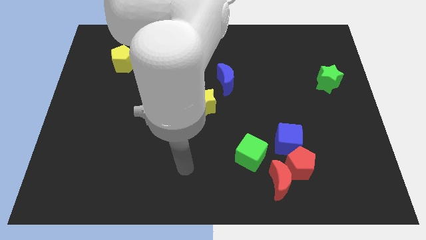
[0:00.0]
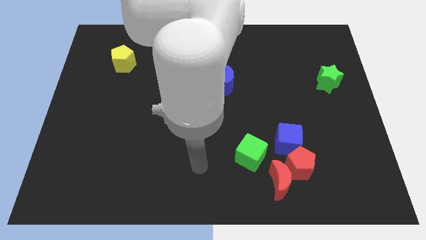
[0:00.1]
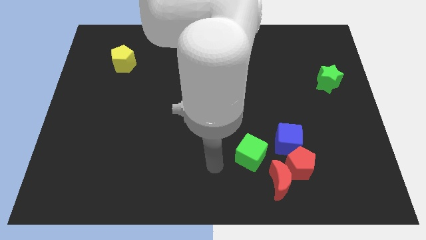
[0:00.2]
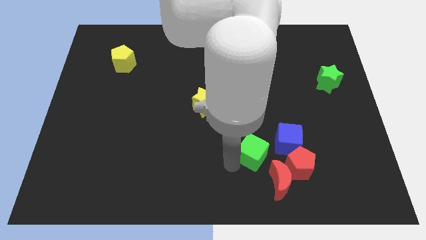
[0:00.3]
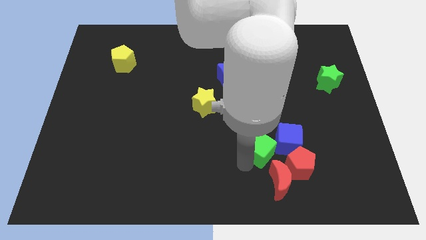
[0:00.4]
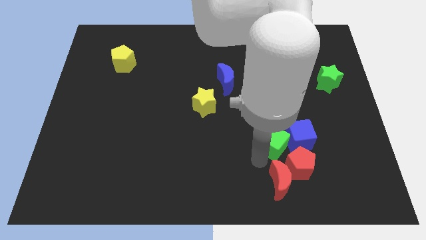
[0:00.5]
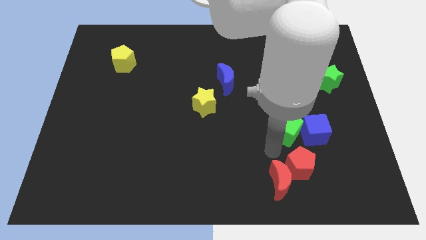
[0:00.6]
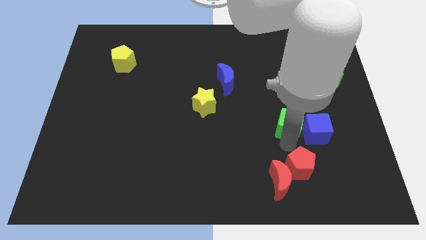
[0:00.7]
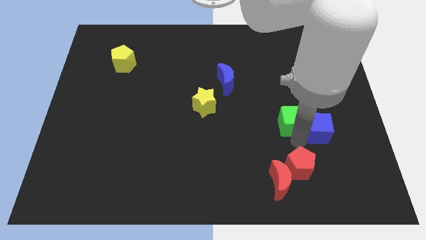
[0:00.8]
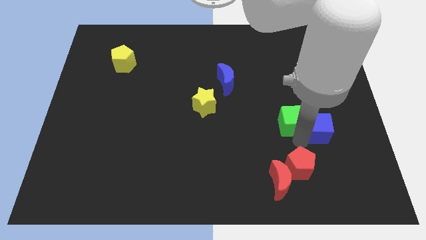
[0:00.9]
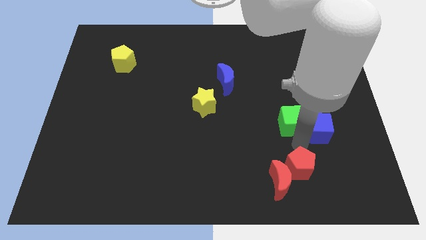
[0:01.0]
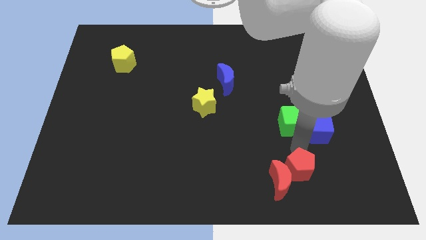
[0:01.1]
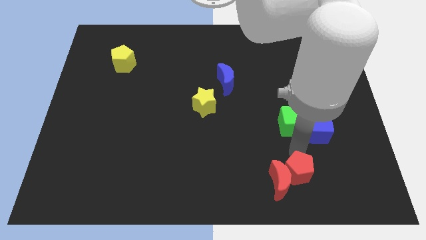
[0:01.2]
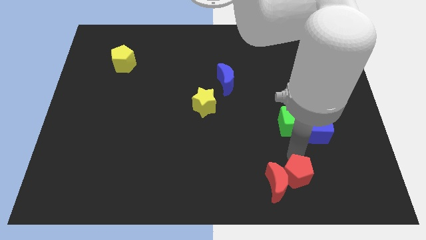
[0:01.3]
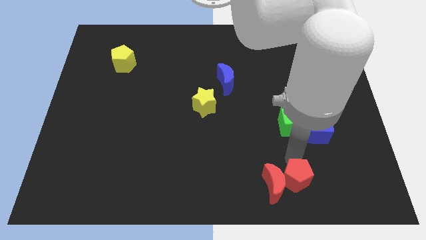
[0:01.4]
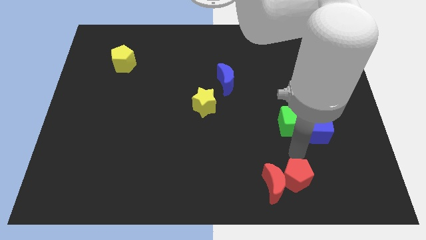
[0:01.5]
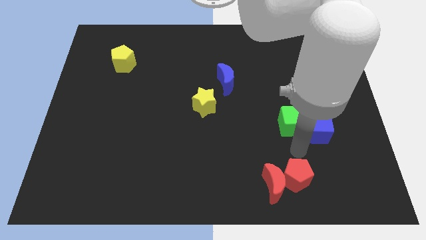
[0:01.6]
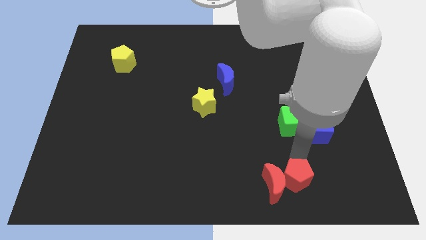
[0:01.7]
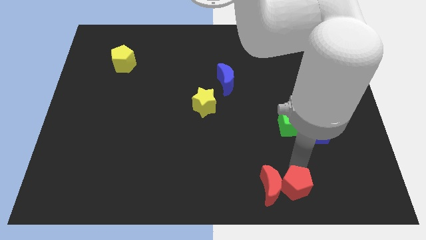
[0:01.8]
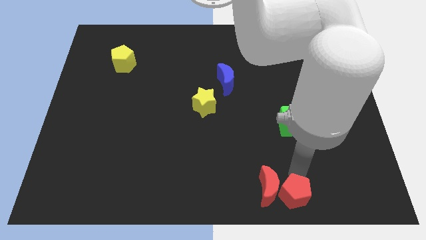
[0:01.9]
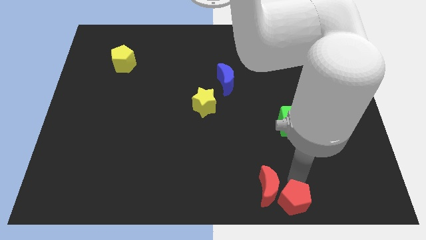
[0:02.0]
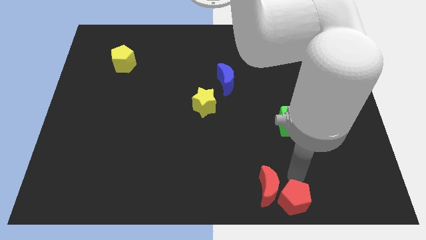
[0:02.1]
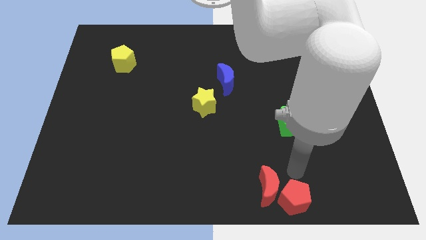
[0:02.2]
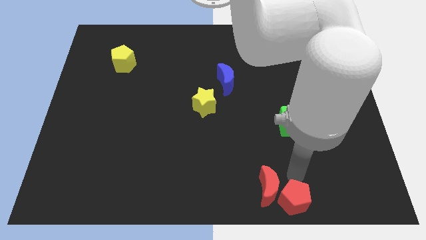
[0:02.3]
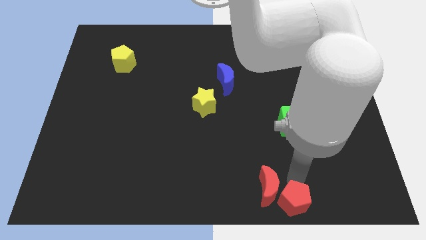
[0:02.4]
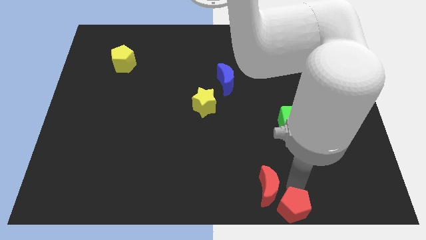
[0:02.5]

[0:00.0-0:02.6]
move the red pentagon away from the red moon and blue cube

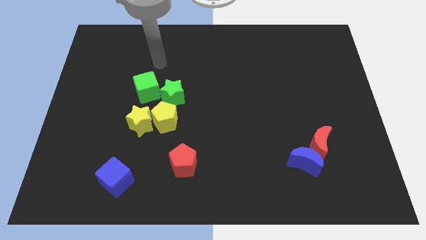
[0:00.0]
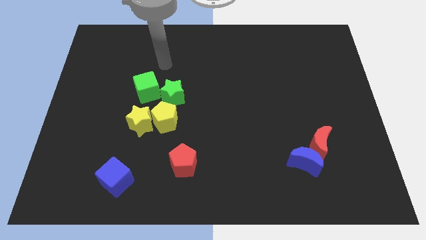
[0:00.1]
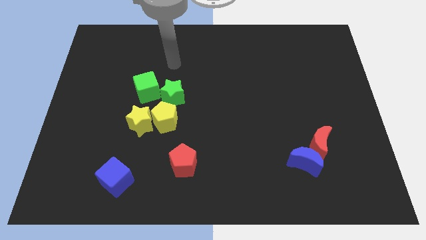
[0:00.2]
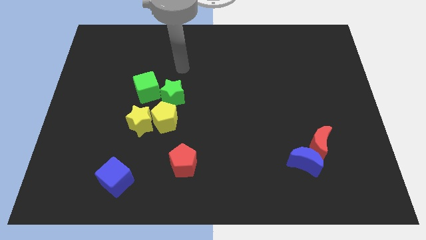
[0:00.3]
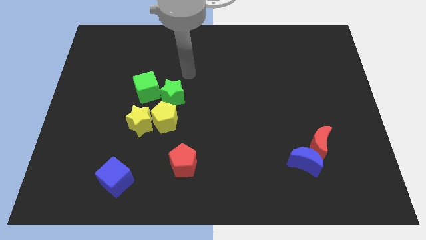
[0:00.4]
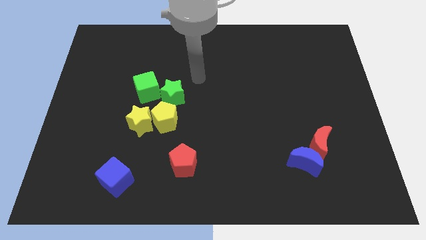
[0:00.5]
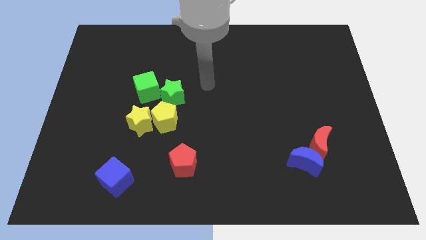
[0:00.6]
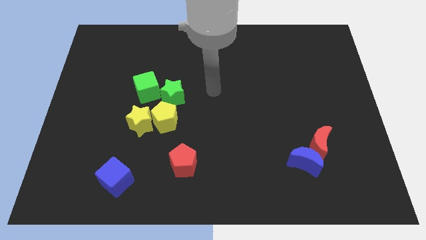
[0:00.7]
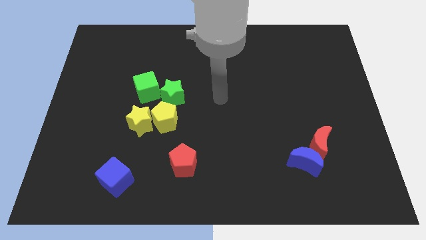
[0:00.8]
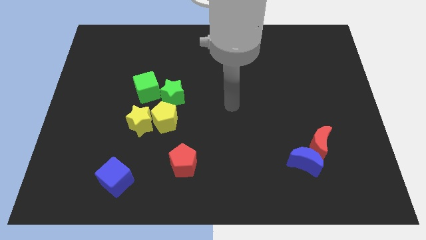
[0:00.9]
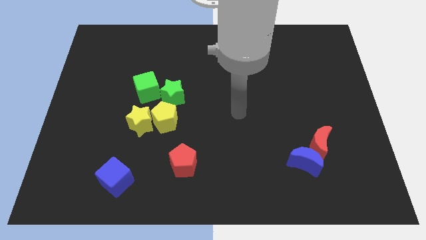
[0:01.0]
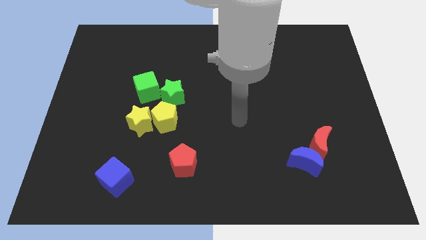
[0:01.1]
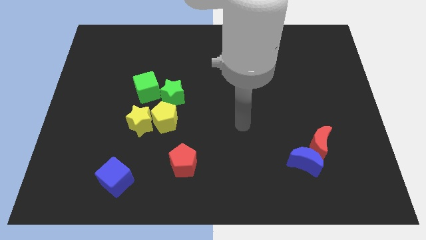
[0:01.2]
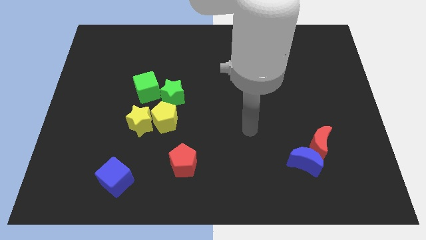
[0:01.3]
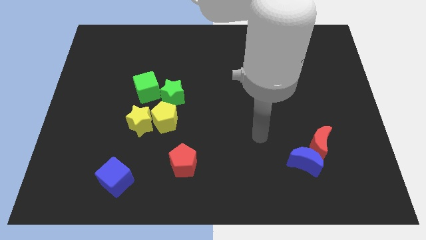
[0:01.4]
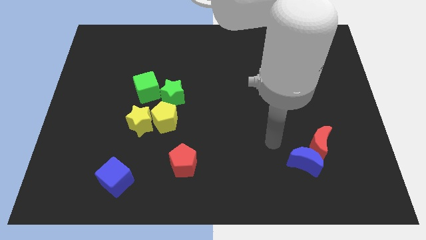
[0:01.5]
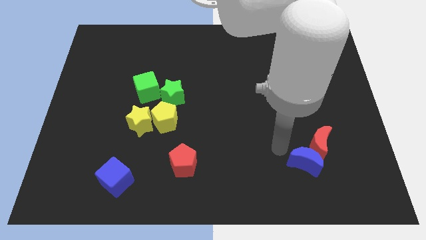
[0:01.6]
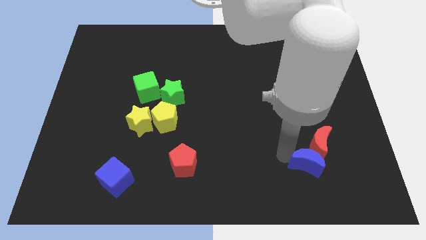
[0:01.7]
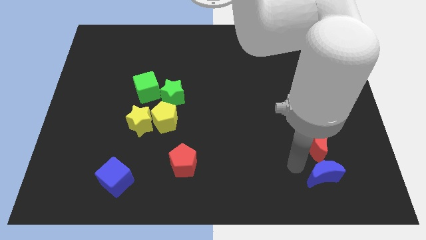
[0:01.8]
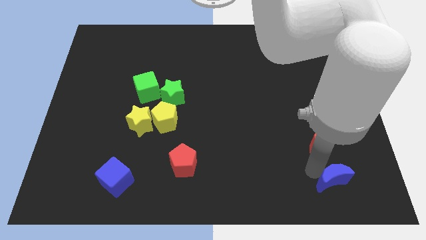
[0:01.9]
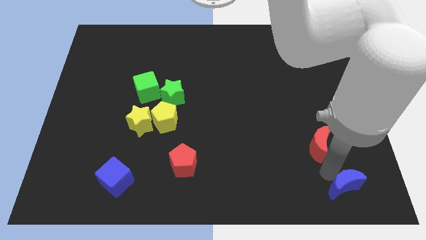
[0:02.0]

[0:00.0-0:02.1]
separate the red moon from the blue moon

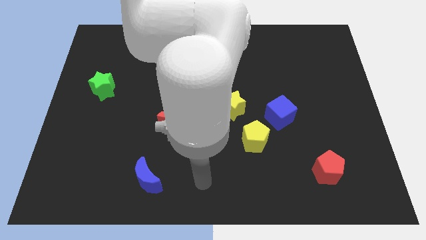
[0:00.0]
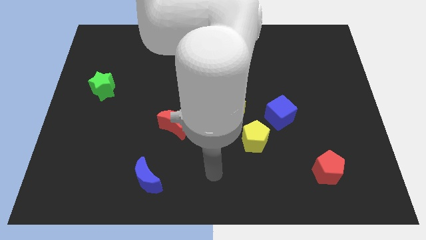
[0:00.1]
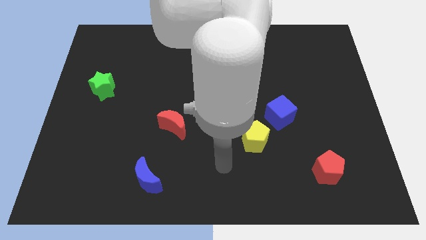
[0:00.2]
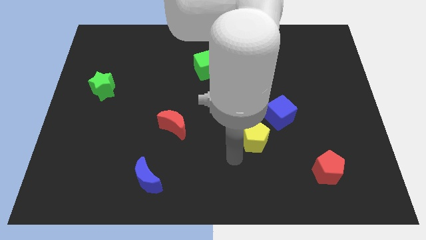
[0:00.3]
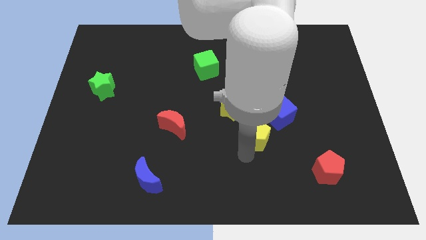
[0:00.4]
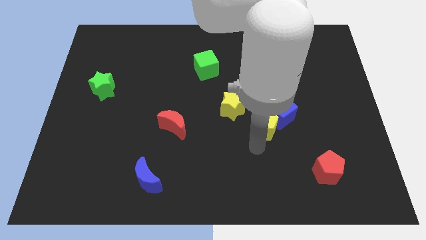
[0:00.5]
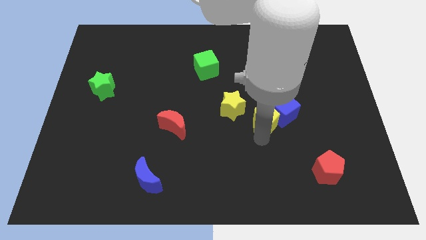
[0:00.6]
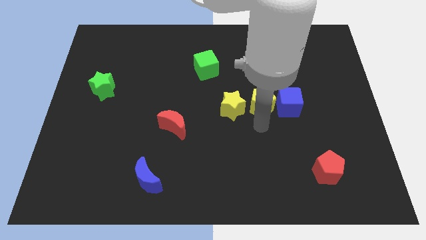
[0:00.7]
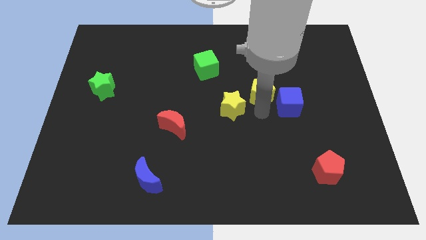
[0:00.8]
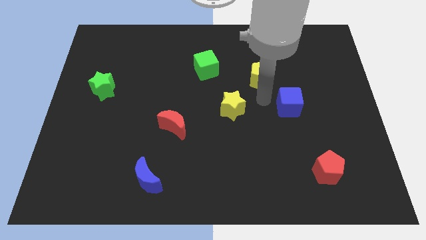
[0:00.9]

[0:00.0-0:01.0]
move the blue cube away from the yellow pentagon

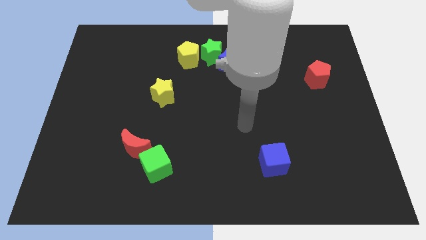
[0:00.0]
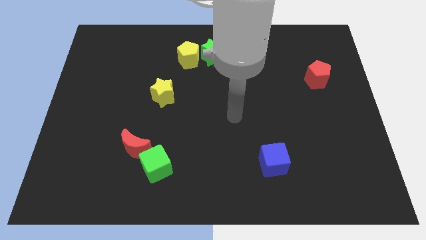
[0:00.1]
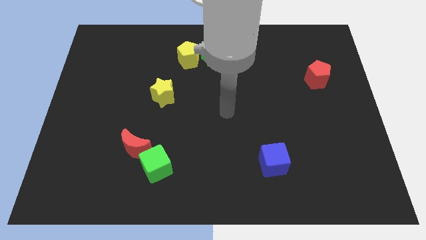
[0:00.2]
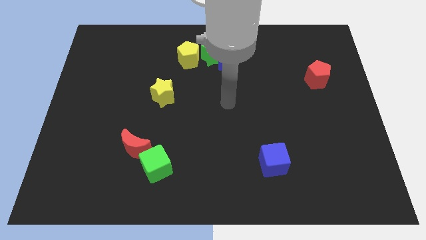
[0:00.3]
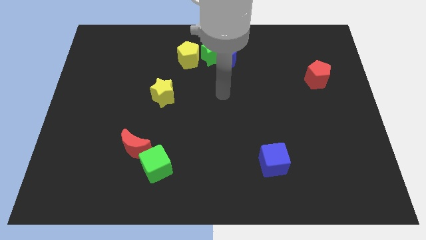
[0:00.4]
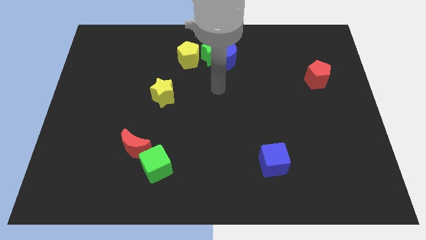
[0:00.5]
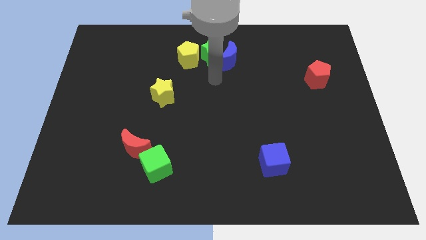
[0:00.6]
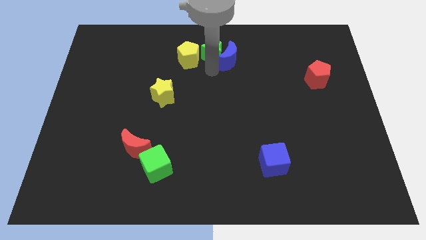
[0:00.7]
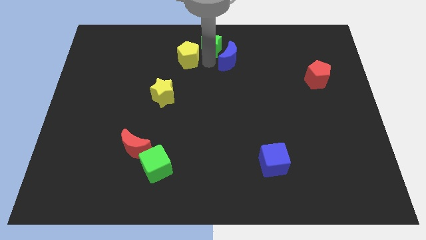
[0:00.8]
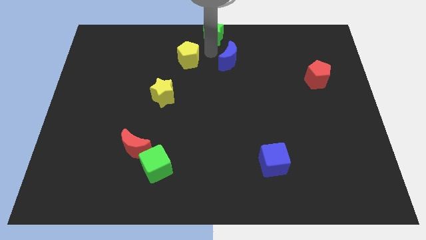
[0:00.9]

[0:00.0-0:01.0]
separate the blue moon from the green star

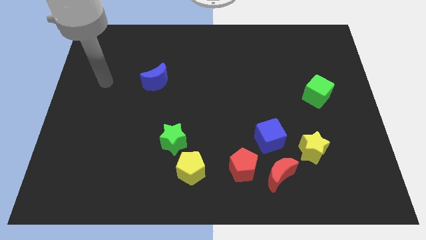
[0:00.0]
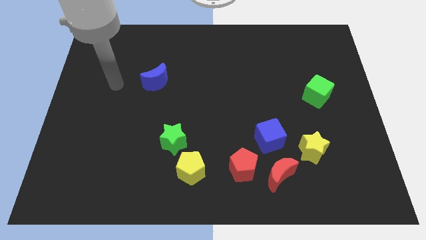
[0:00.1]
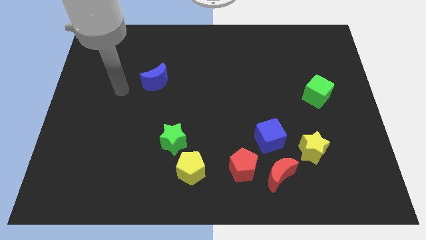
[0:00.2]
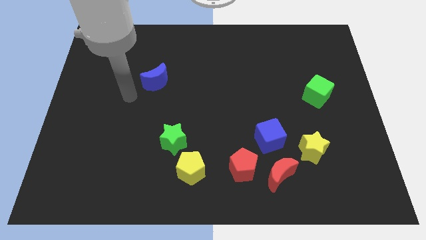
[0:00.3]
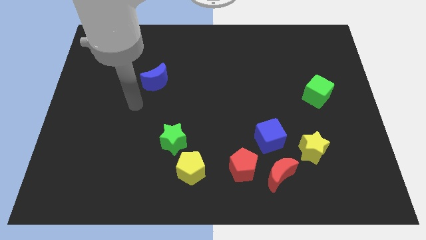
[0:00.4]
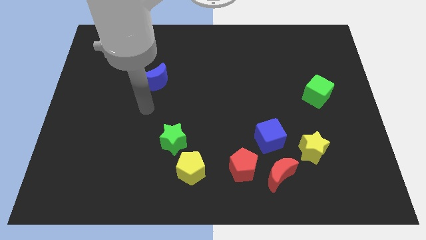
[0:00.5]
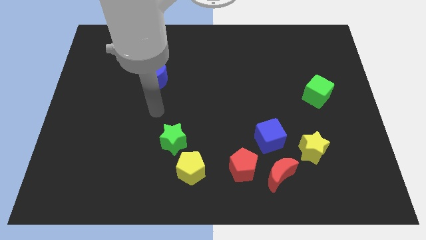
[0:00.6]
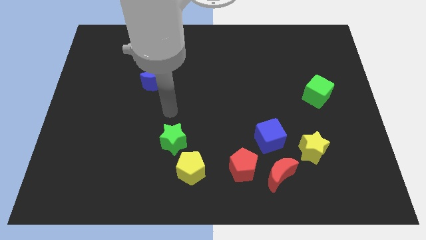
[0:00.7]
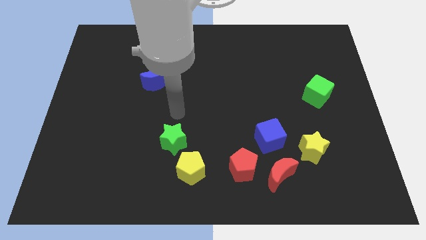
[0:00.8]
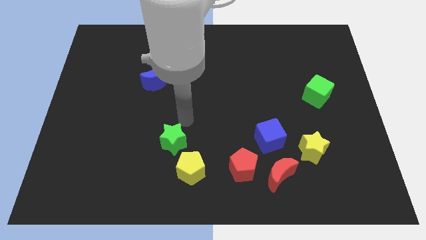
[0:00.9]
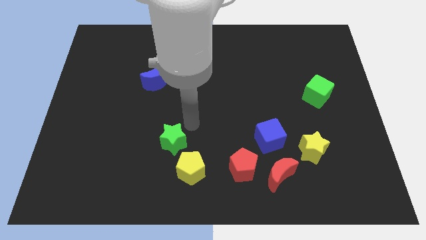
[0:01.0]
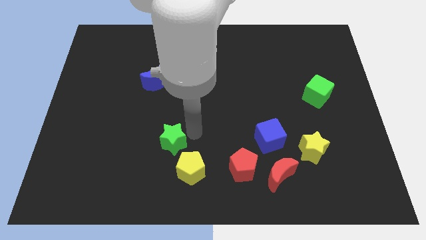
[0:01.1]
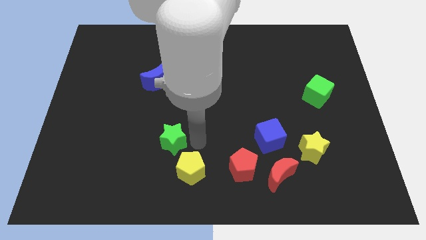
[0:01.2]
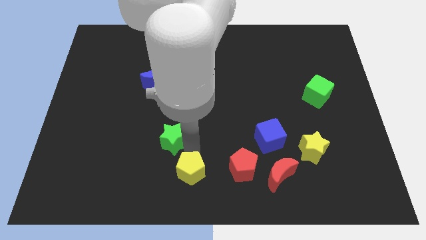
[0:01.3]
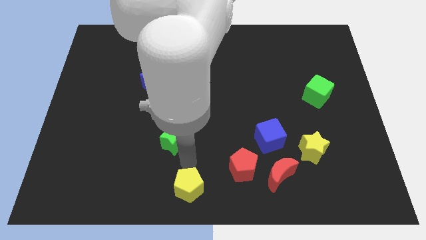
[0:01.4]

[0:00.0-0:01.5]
move the green star away from the yellow pentagon

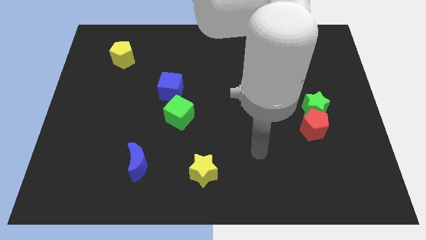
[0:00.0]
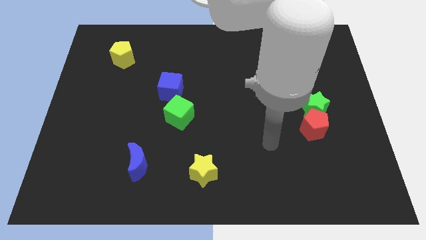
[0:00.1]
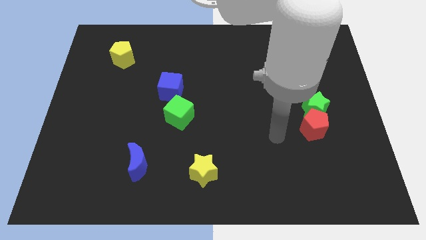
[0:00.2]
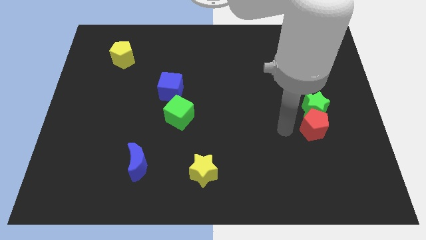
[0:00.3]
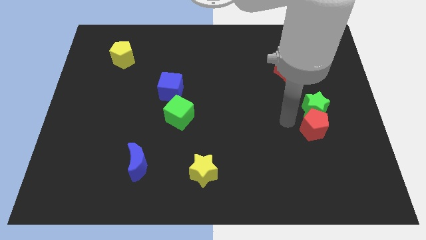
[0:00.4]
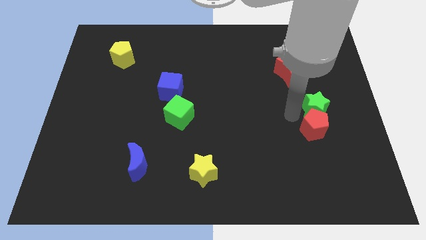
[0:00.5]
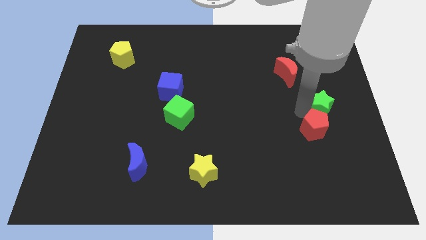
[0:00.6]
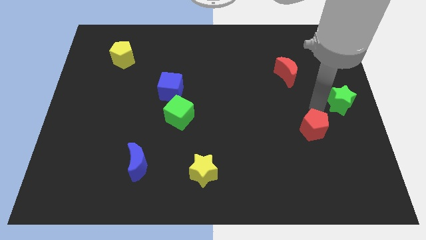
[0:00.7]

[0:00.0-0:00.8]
pull the red pentagon apart from the green star

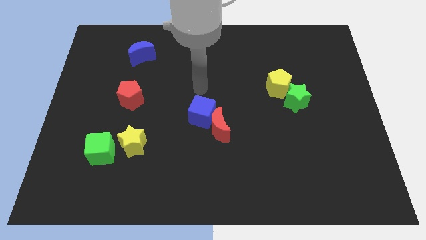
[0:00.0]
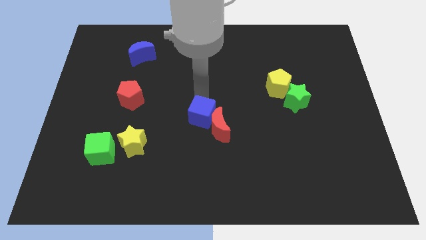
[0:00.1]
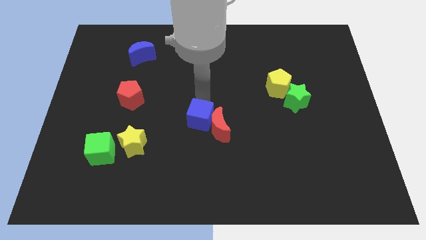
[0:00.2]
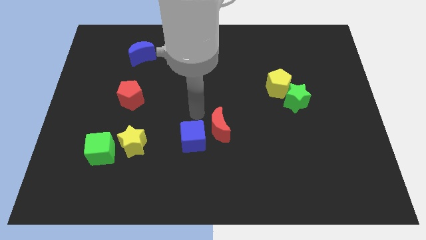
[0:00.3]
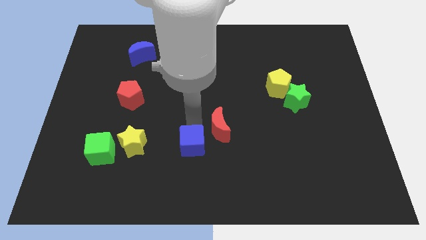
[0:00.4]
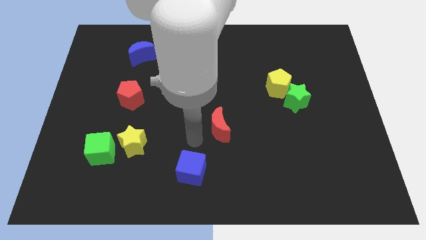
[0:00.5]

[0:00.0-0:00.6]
pull the red moon apart from the blue cube
